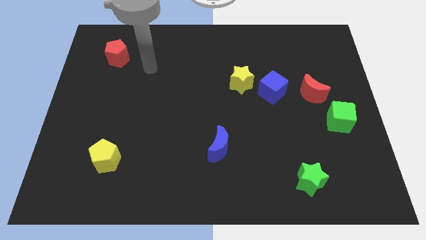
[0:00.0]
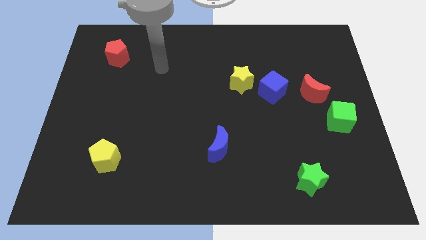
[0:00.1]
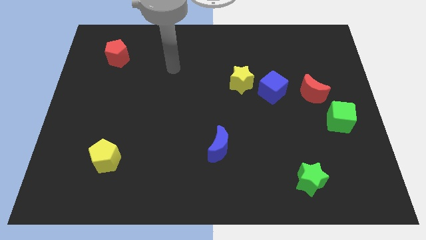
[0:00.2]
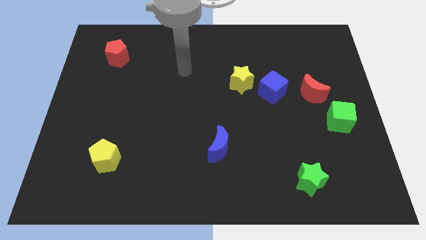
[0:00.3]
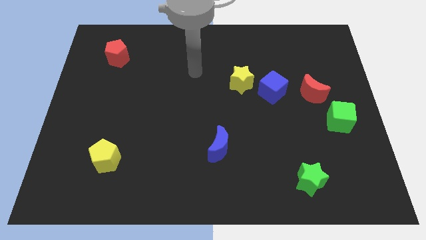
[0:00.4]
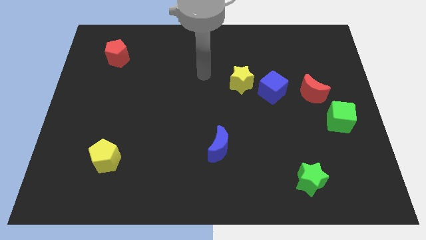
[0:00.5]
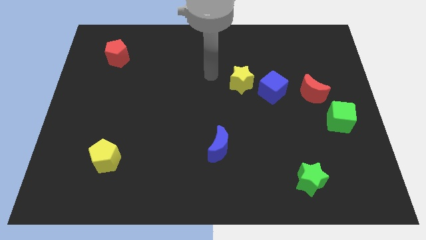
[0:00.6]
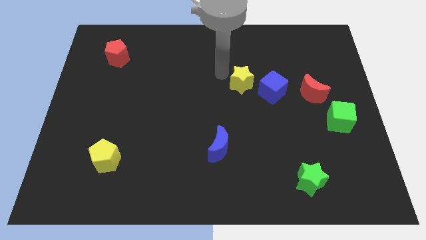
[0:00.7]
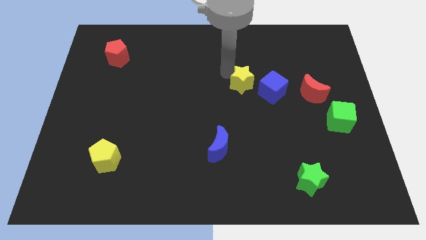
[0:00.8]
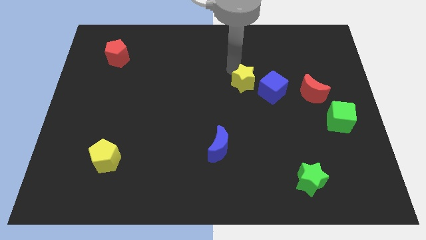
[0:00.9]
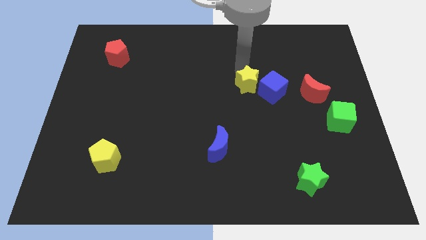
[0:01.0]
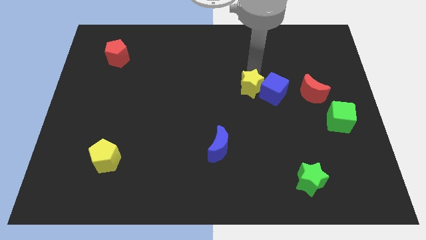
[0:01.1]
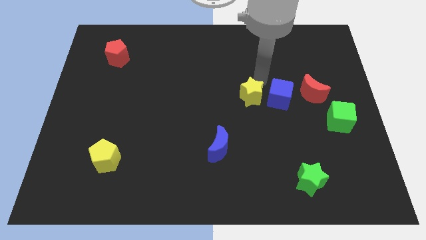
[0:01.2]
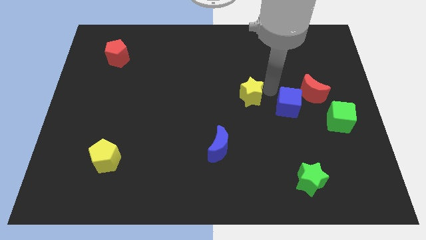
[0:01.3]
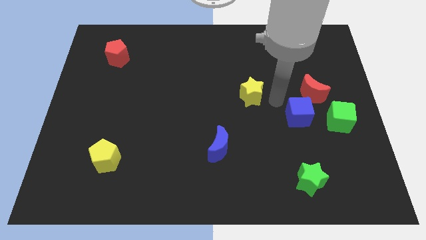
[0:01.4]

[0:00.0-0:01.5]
separate the yellow star from the blue cube

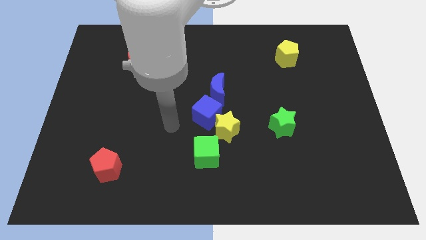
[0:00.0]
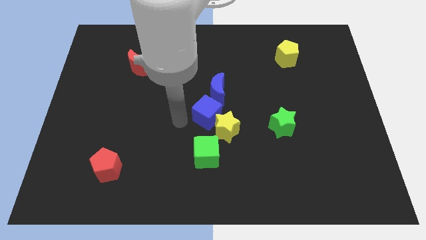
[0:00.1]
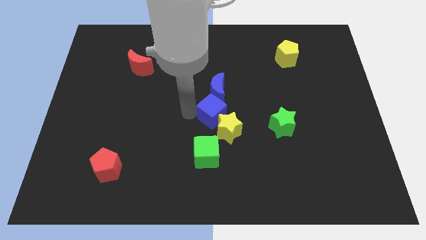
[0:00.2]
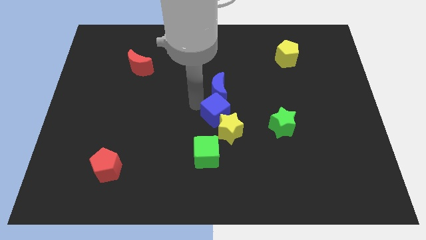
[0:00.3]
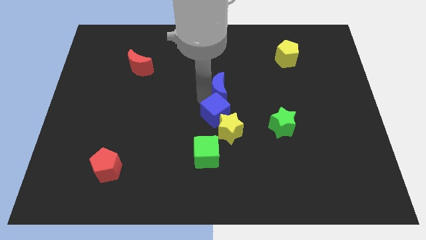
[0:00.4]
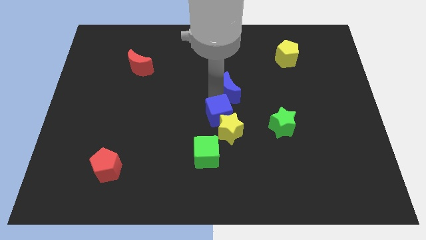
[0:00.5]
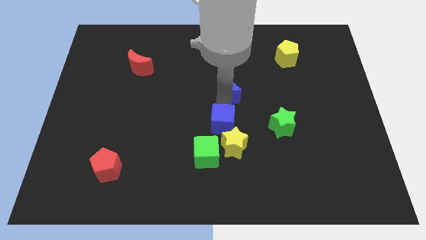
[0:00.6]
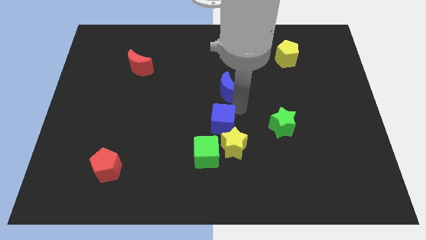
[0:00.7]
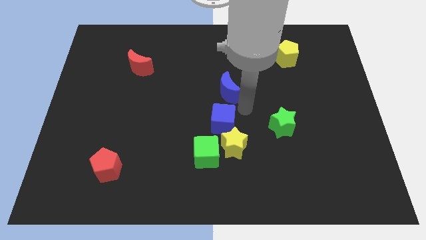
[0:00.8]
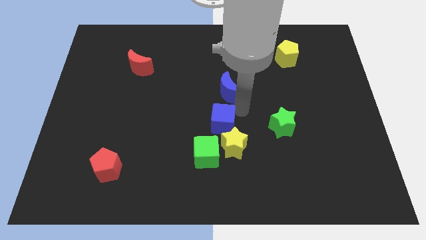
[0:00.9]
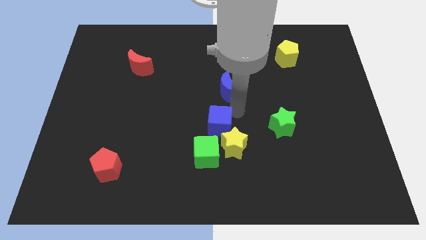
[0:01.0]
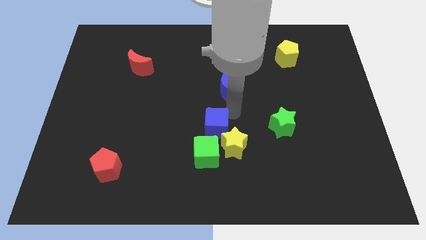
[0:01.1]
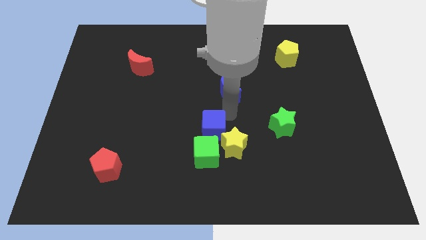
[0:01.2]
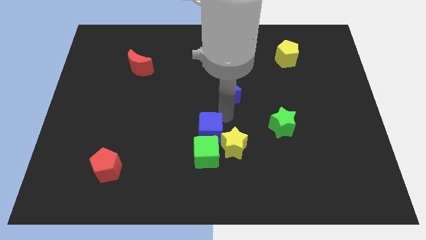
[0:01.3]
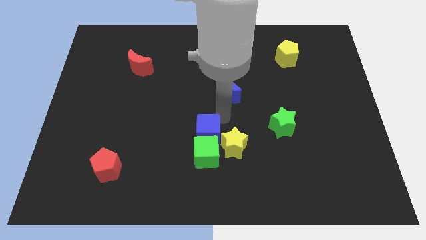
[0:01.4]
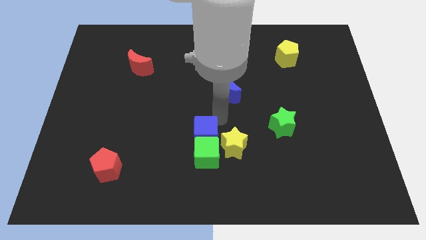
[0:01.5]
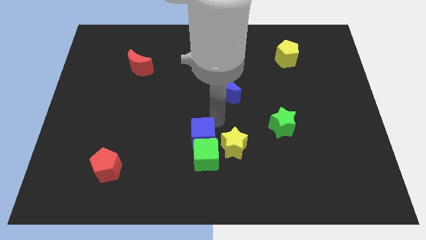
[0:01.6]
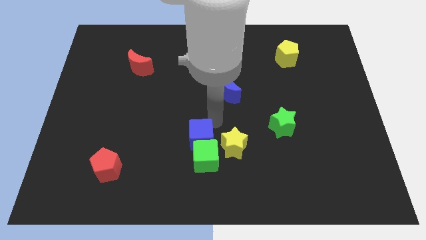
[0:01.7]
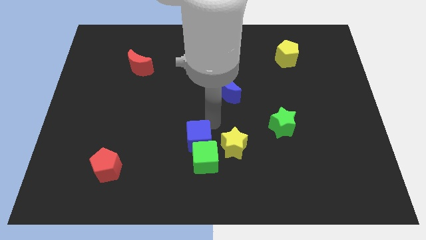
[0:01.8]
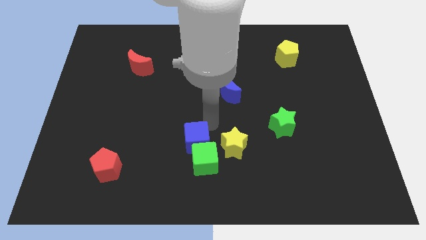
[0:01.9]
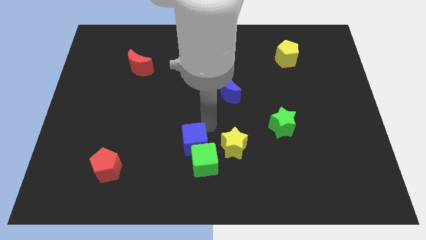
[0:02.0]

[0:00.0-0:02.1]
separate the blue cube from the yellow star and blue moon

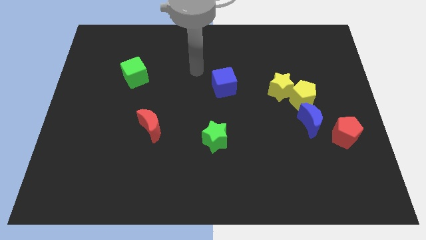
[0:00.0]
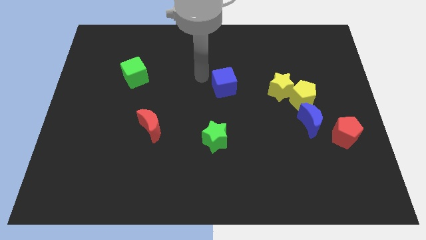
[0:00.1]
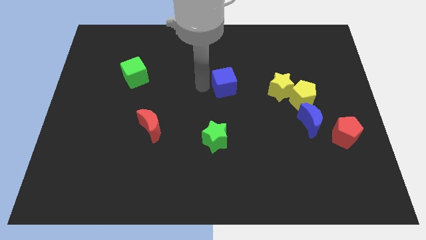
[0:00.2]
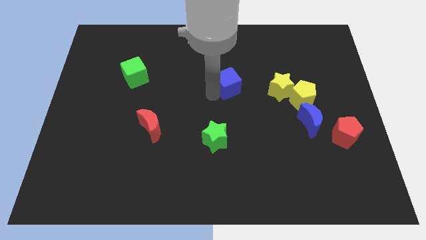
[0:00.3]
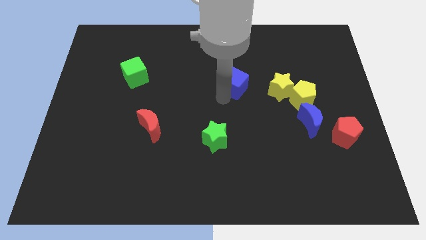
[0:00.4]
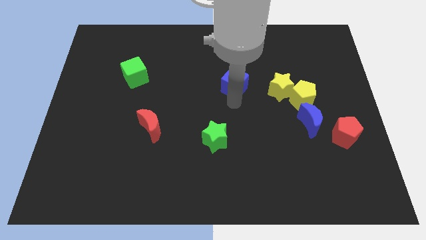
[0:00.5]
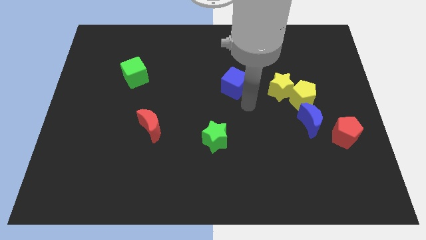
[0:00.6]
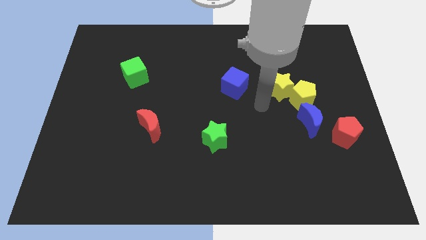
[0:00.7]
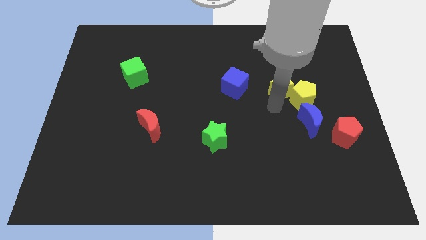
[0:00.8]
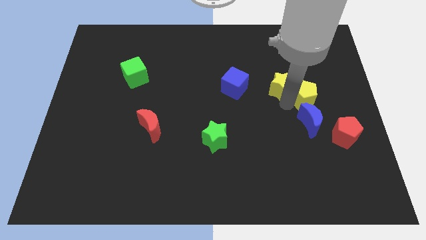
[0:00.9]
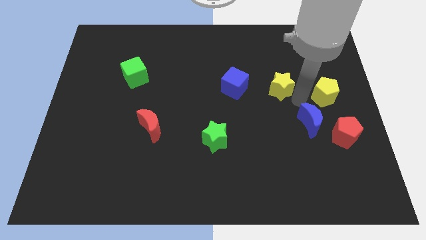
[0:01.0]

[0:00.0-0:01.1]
move the yellow star away from the yellow pentagon

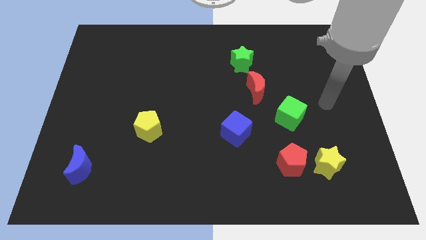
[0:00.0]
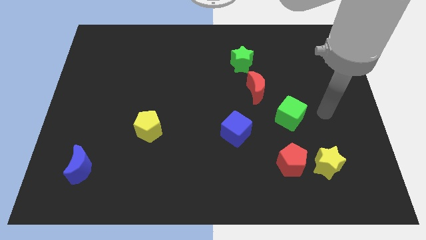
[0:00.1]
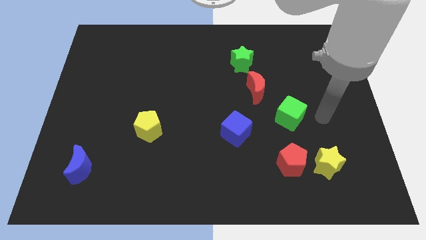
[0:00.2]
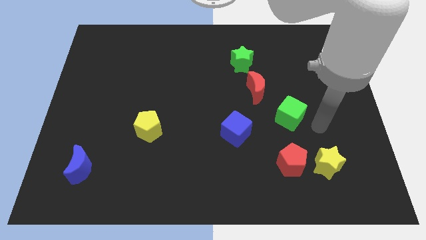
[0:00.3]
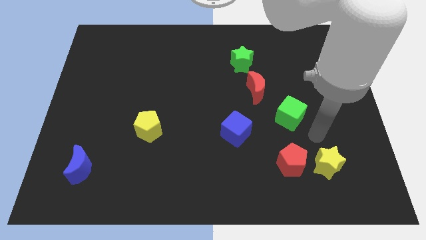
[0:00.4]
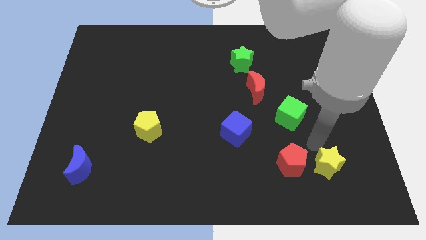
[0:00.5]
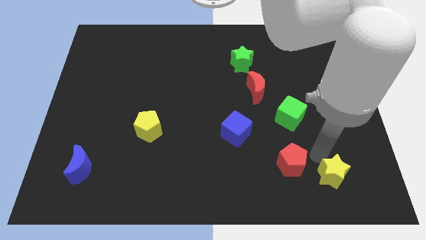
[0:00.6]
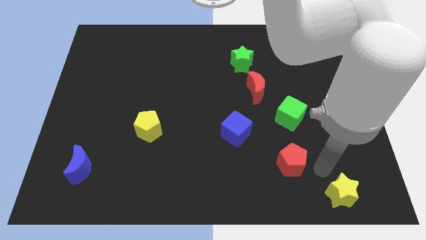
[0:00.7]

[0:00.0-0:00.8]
separate the red pentagon from the yellow star

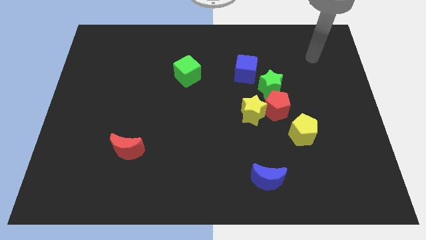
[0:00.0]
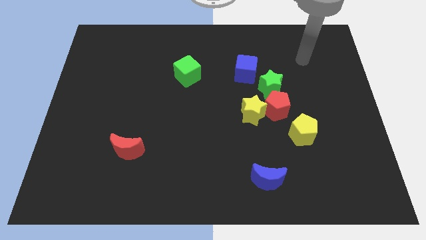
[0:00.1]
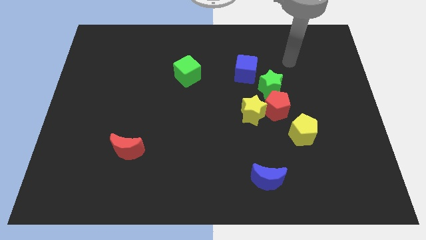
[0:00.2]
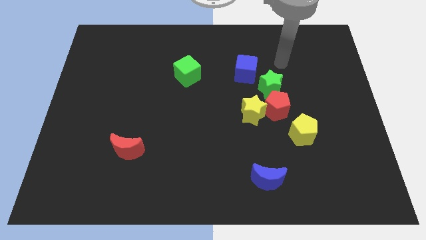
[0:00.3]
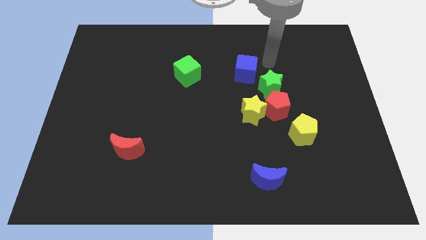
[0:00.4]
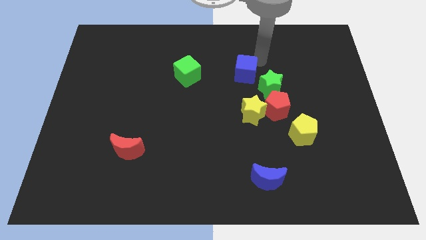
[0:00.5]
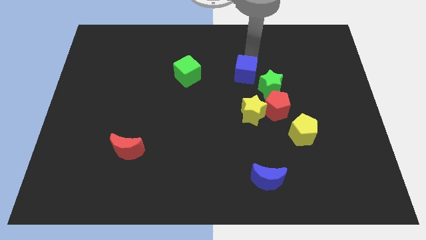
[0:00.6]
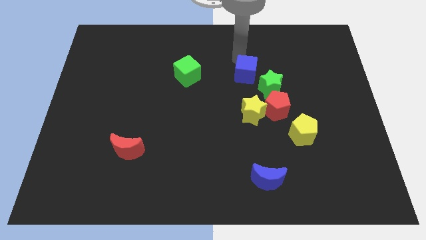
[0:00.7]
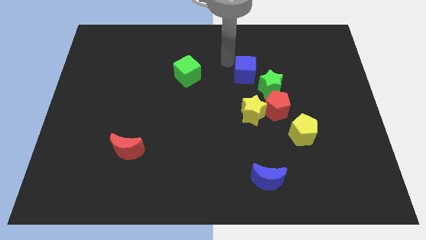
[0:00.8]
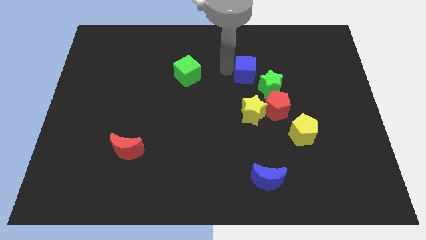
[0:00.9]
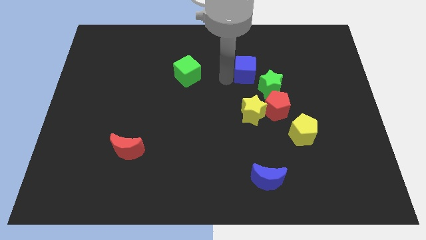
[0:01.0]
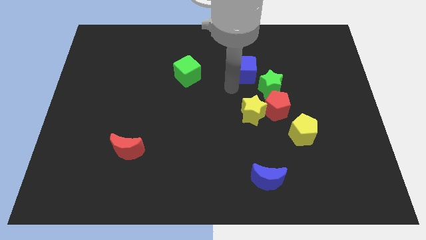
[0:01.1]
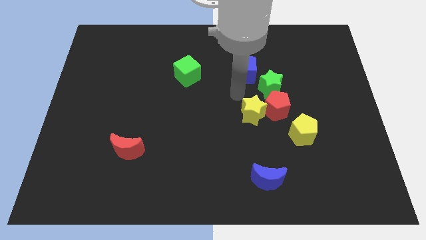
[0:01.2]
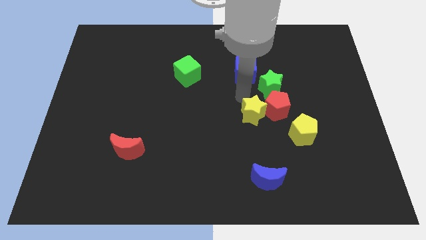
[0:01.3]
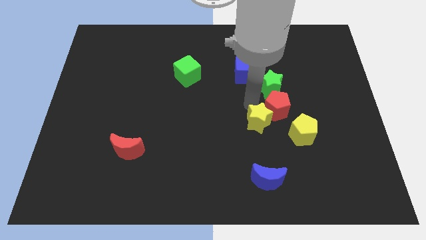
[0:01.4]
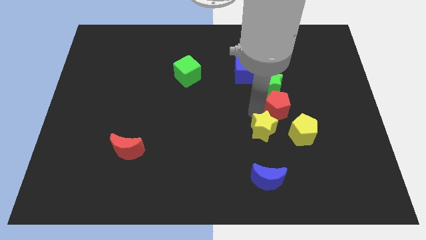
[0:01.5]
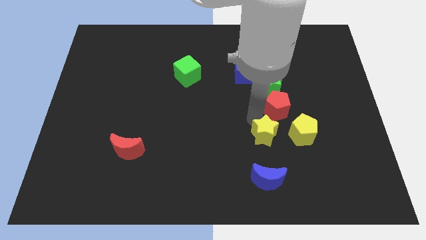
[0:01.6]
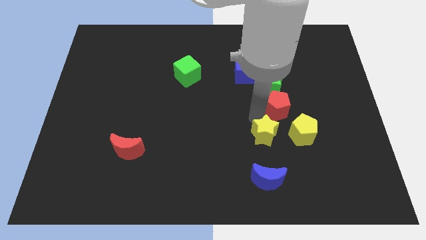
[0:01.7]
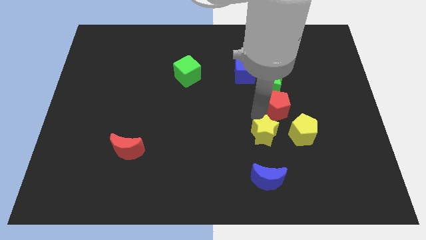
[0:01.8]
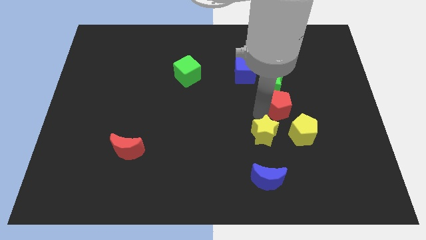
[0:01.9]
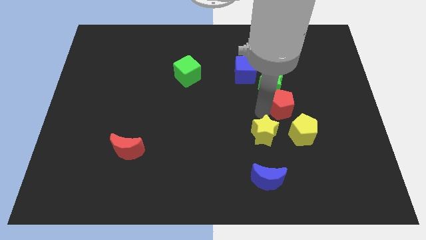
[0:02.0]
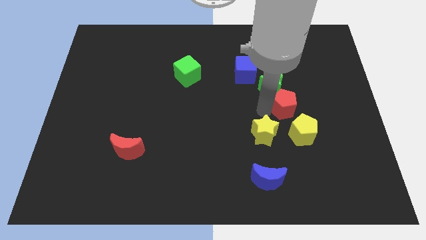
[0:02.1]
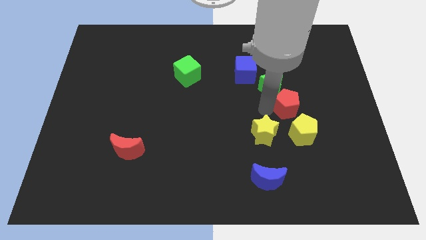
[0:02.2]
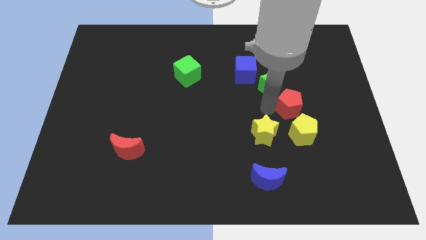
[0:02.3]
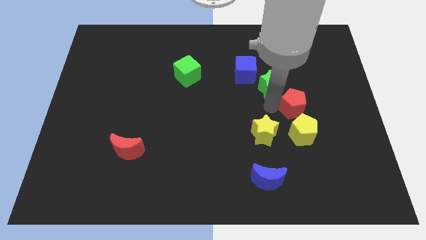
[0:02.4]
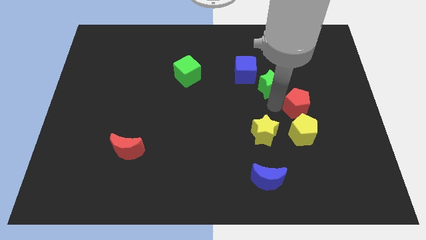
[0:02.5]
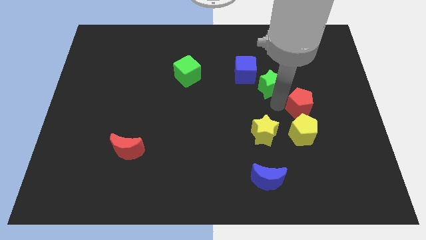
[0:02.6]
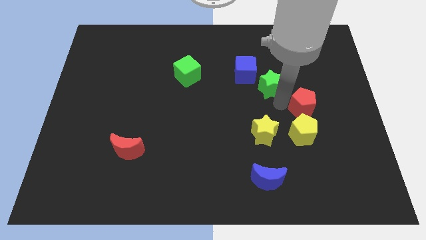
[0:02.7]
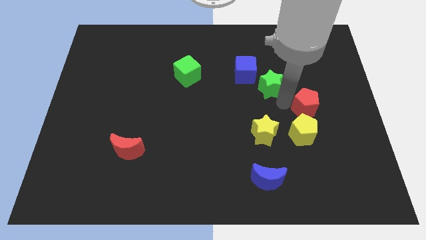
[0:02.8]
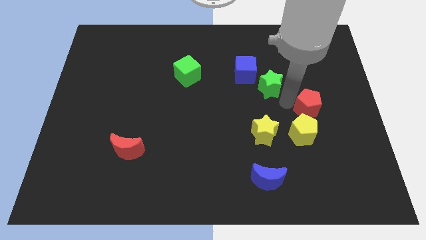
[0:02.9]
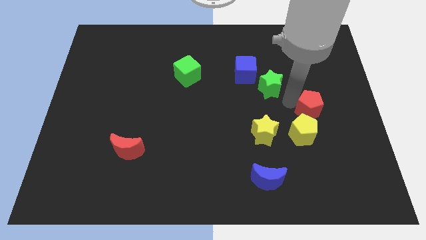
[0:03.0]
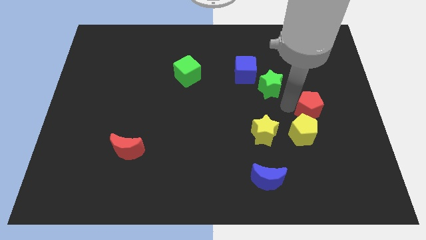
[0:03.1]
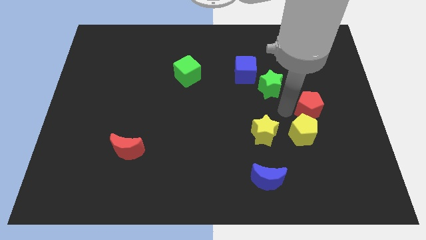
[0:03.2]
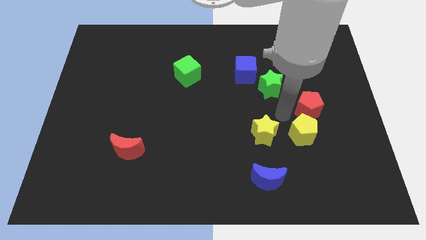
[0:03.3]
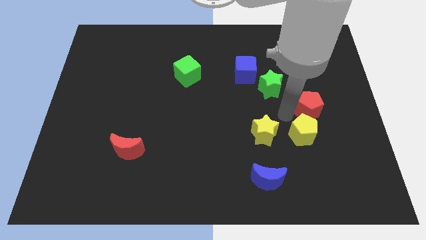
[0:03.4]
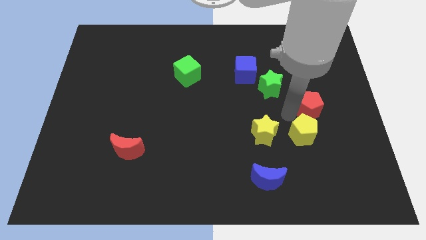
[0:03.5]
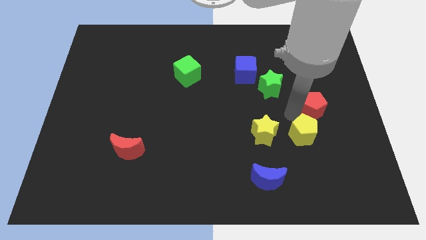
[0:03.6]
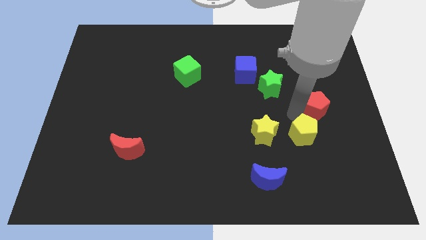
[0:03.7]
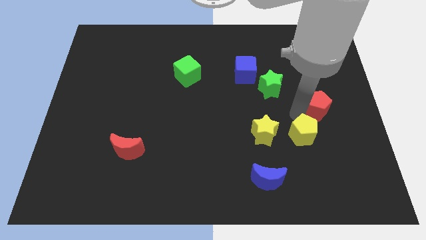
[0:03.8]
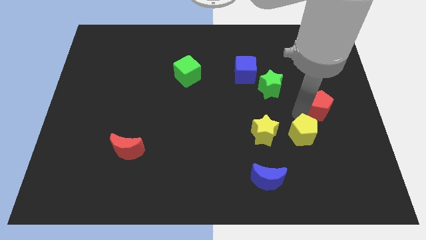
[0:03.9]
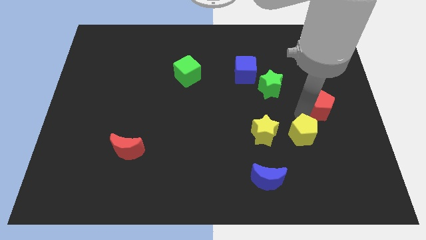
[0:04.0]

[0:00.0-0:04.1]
move the red pentagon away from the yellow star, green star, and yellow pentagon
